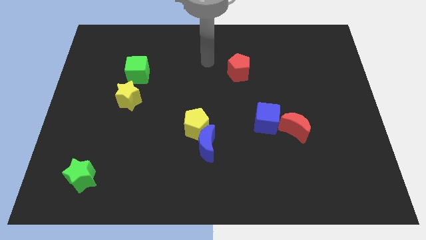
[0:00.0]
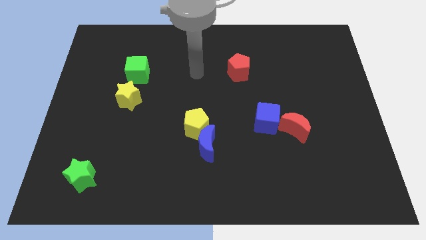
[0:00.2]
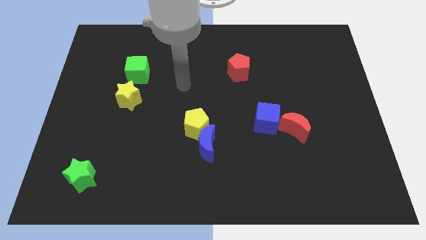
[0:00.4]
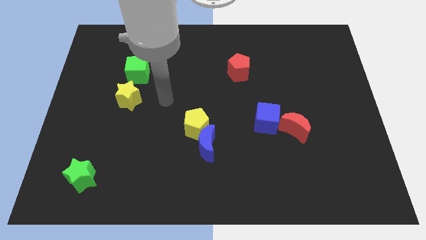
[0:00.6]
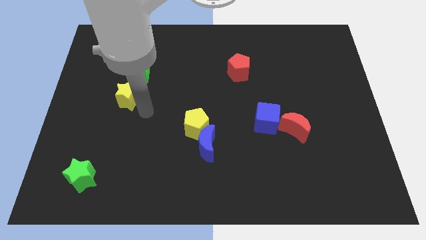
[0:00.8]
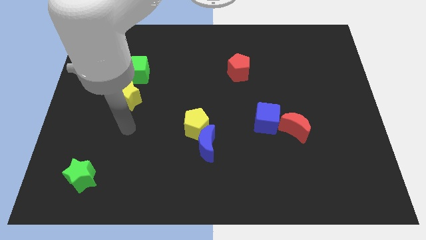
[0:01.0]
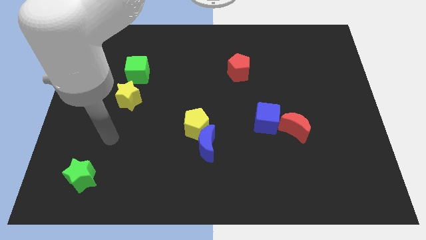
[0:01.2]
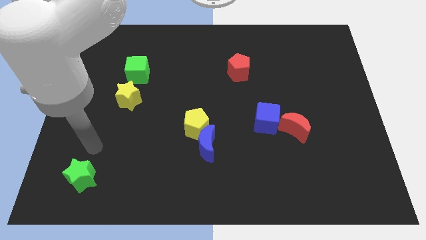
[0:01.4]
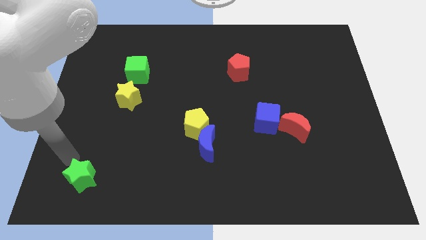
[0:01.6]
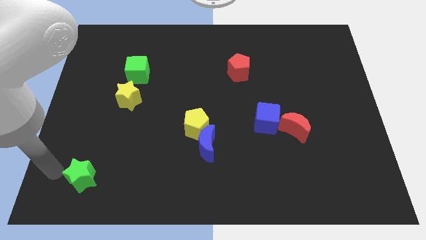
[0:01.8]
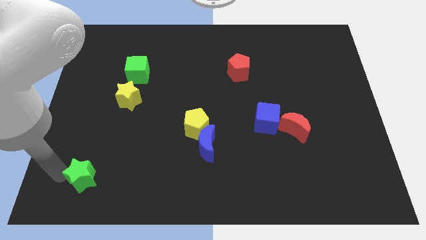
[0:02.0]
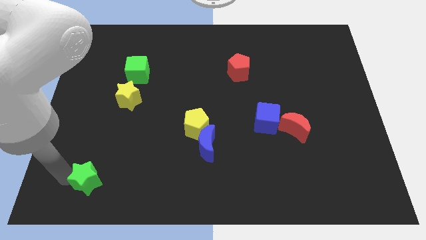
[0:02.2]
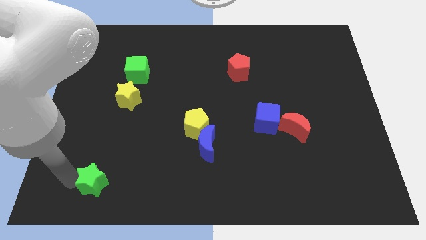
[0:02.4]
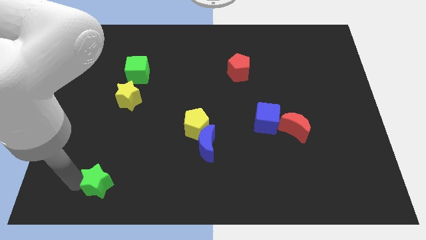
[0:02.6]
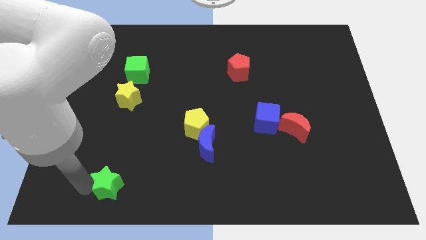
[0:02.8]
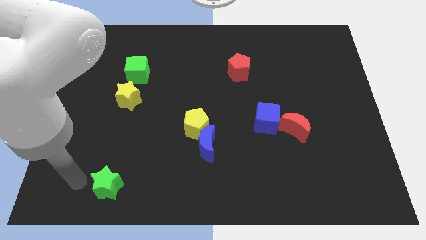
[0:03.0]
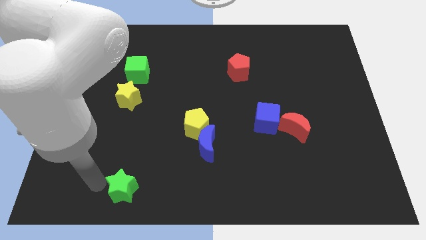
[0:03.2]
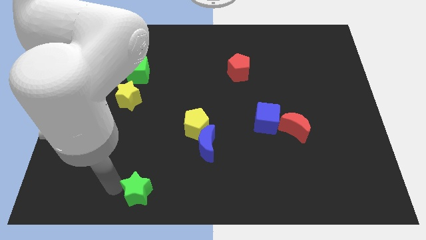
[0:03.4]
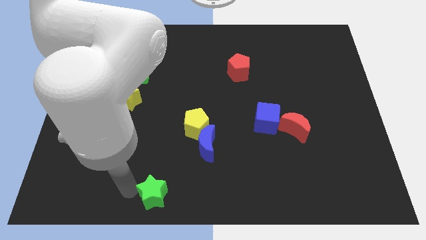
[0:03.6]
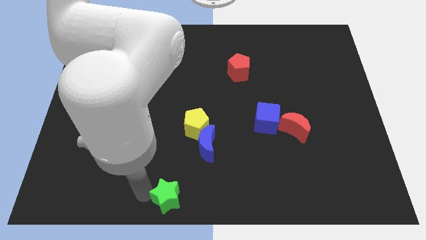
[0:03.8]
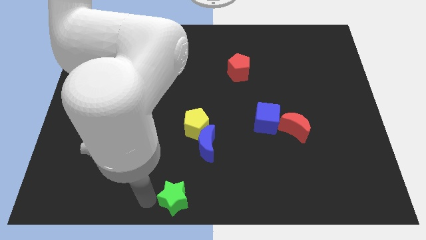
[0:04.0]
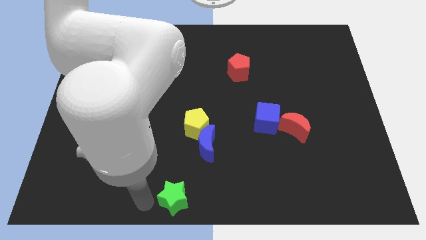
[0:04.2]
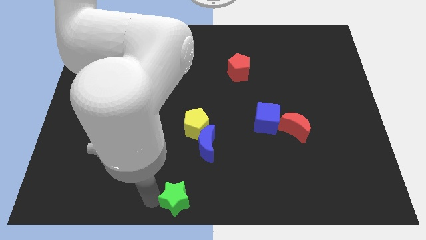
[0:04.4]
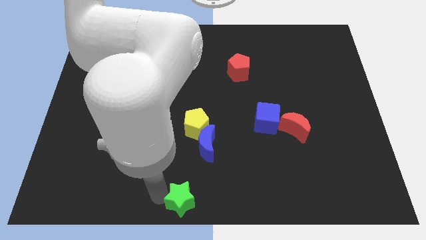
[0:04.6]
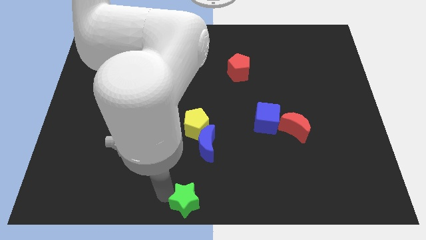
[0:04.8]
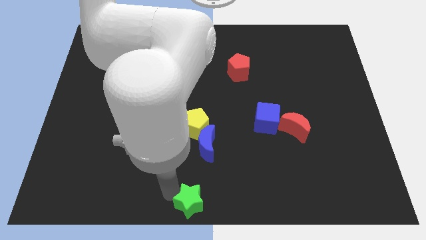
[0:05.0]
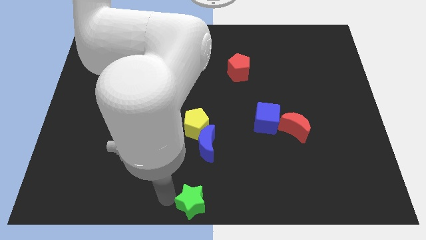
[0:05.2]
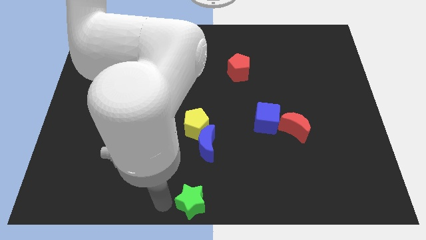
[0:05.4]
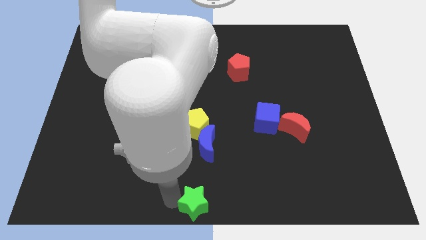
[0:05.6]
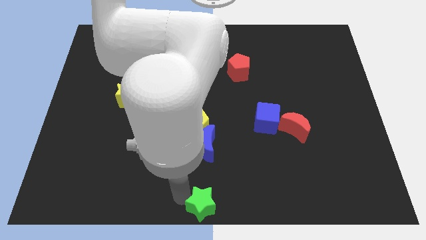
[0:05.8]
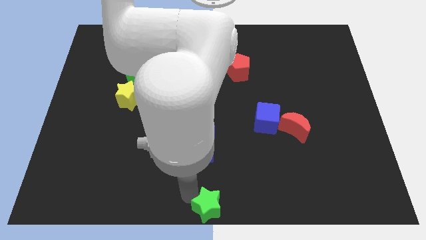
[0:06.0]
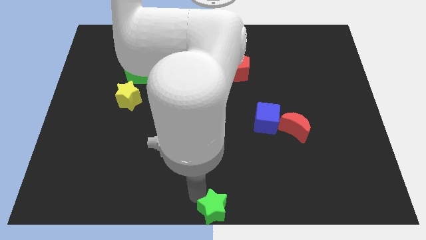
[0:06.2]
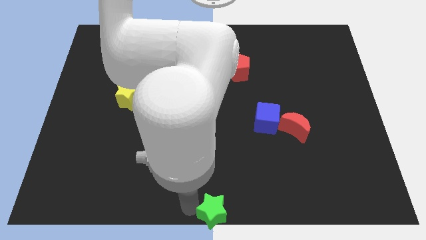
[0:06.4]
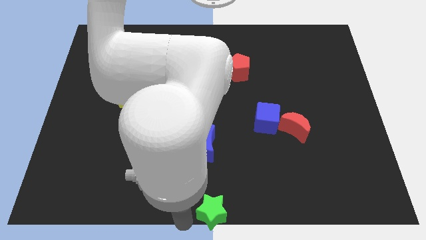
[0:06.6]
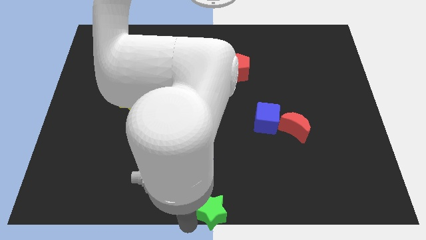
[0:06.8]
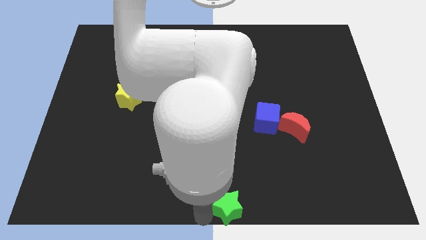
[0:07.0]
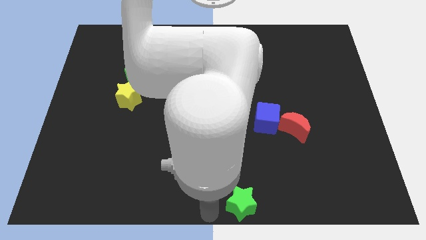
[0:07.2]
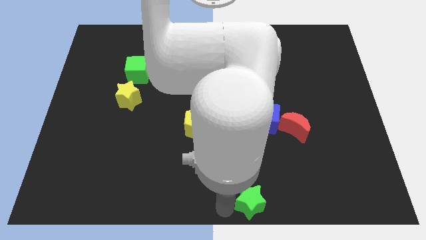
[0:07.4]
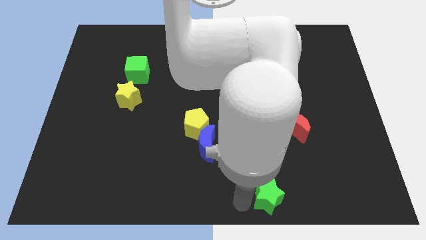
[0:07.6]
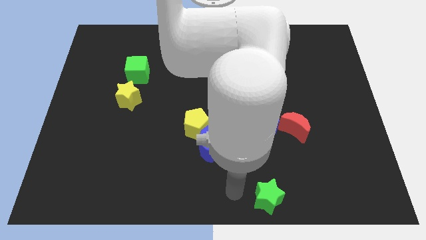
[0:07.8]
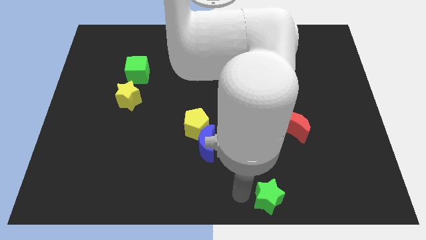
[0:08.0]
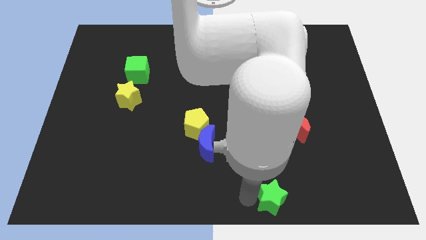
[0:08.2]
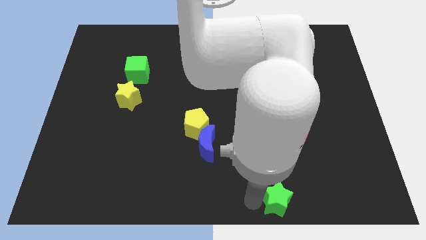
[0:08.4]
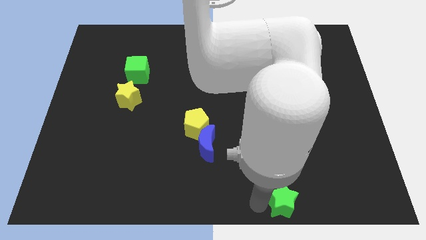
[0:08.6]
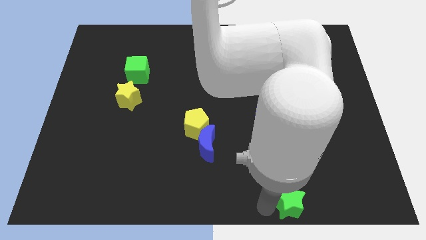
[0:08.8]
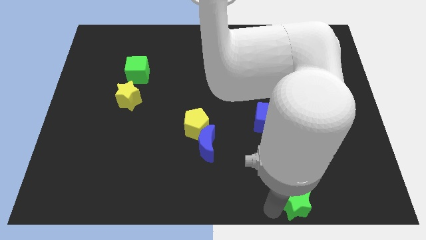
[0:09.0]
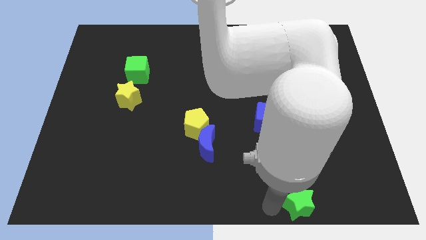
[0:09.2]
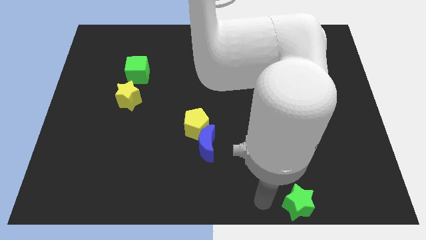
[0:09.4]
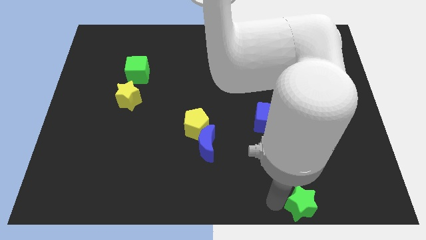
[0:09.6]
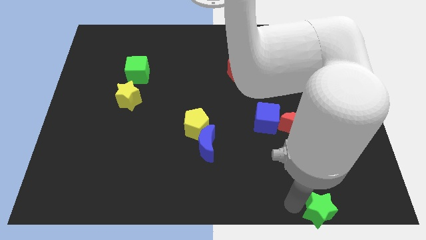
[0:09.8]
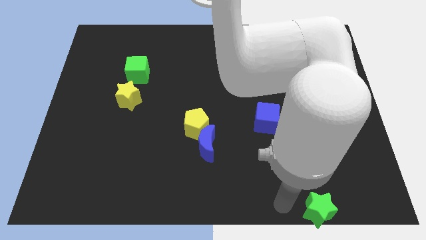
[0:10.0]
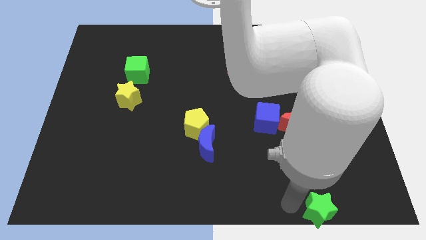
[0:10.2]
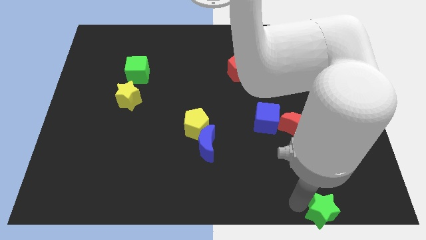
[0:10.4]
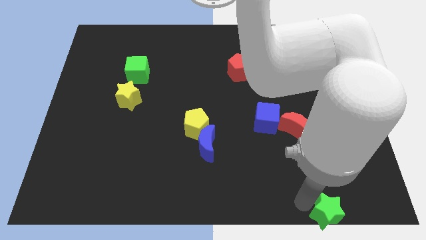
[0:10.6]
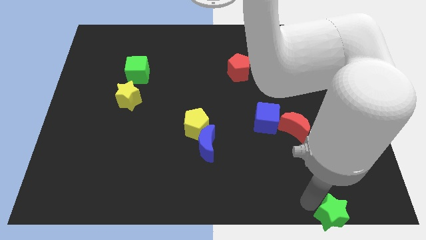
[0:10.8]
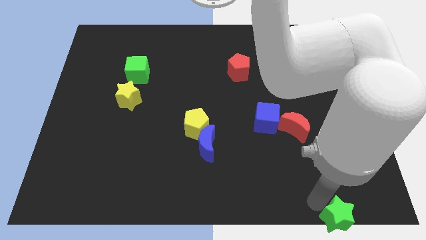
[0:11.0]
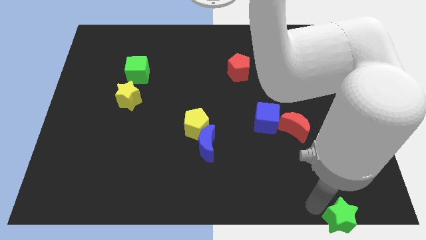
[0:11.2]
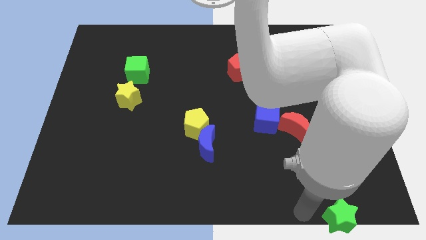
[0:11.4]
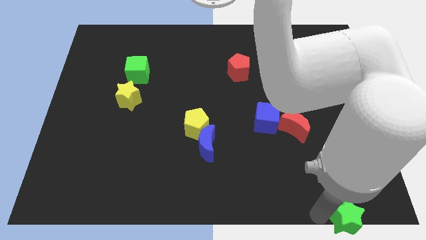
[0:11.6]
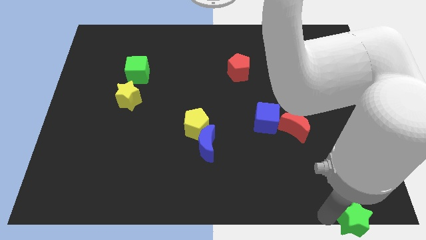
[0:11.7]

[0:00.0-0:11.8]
slide the green star to the bottom right of the board
